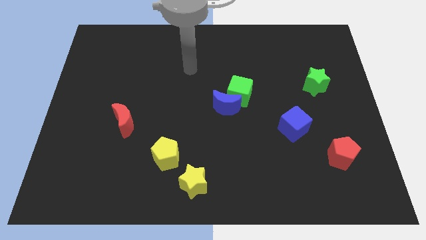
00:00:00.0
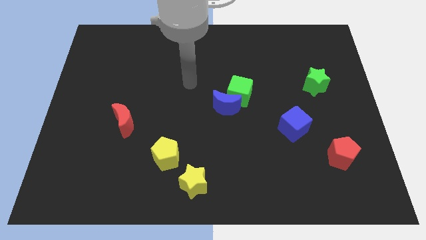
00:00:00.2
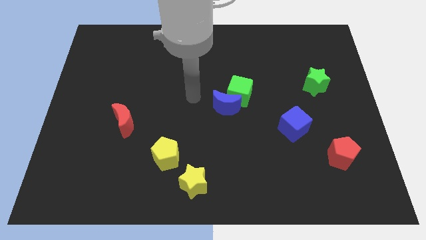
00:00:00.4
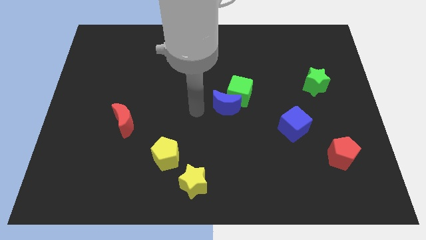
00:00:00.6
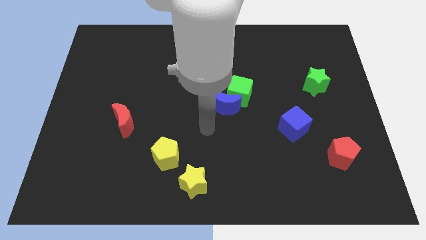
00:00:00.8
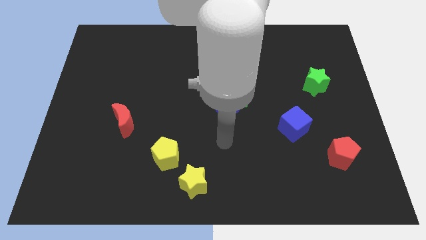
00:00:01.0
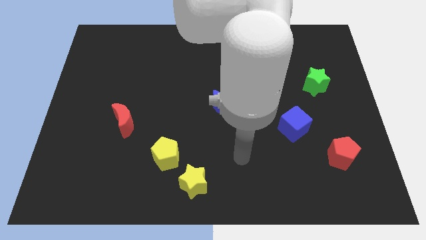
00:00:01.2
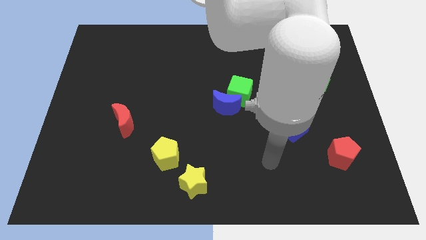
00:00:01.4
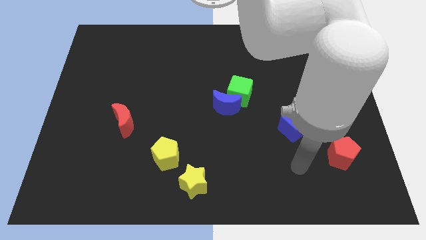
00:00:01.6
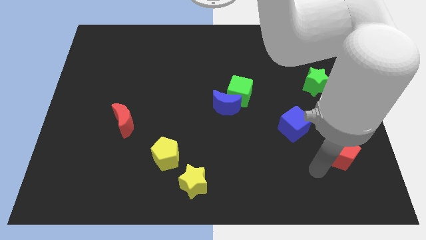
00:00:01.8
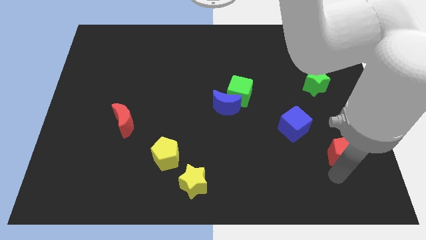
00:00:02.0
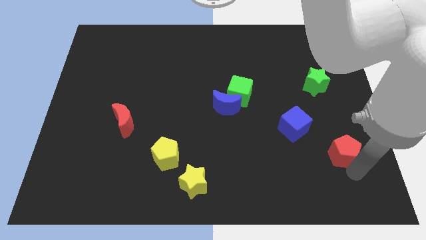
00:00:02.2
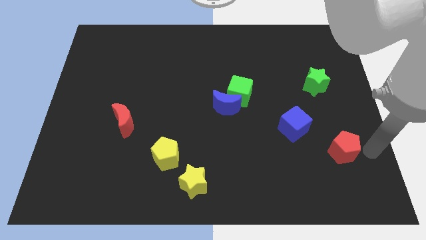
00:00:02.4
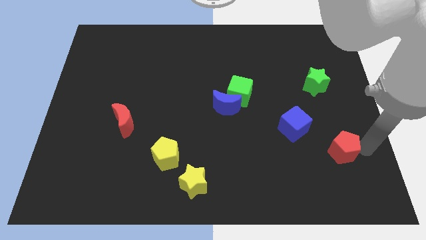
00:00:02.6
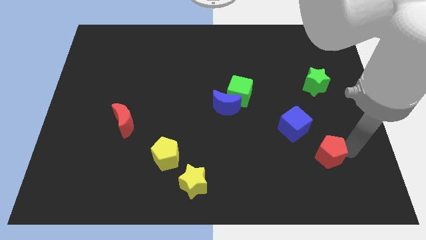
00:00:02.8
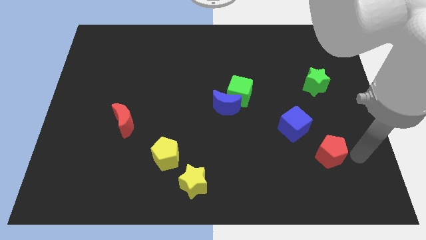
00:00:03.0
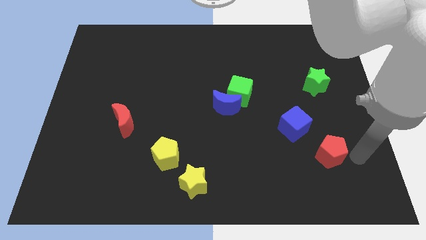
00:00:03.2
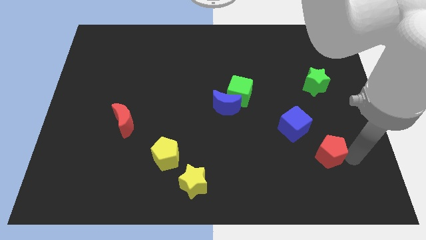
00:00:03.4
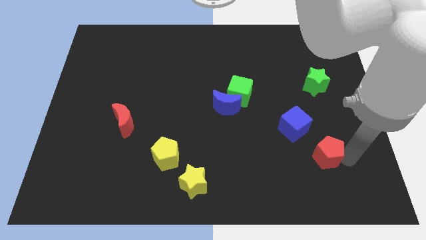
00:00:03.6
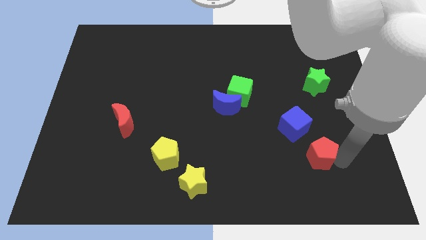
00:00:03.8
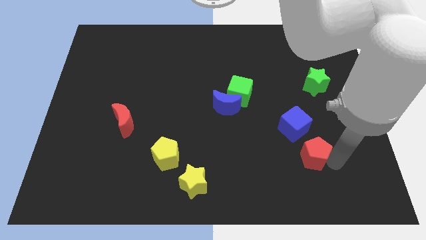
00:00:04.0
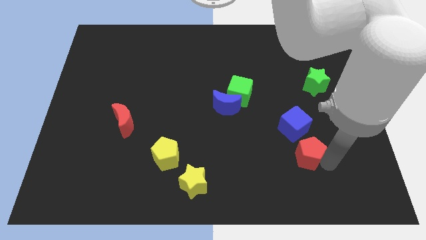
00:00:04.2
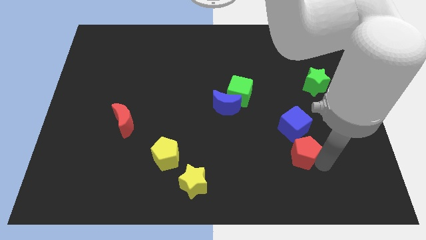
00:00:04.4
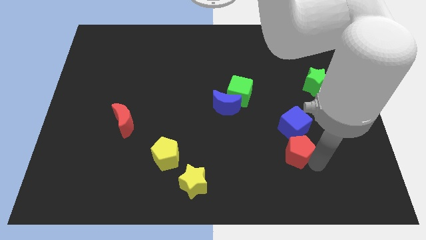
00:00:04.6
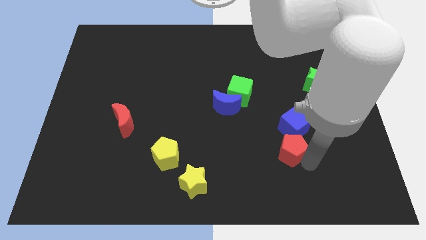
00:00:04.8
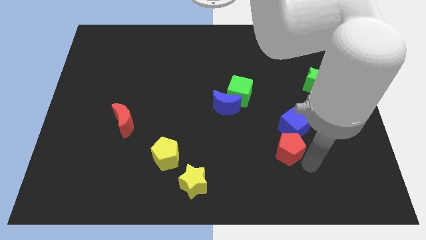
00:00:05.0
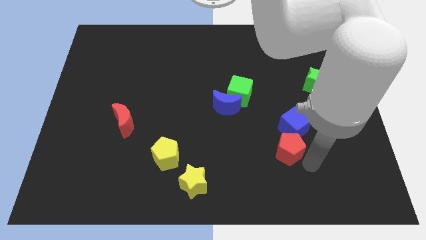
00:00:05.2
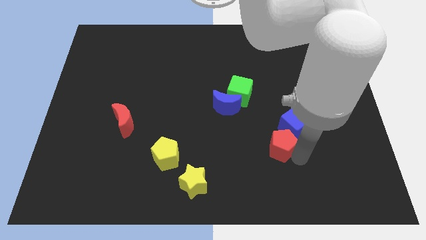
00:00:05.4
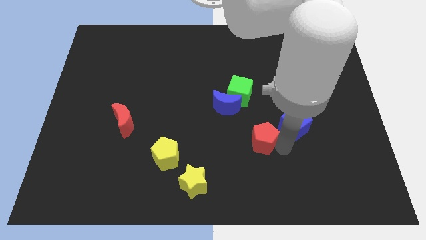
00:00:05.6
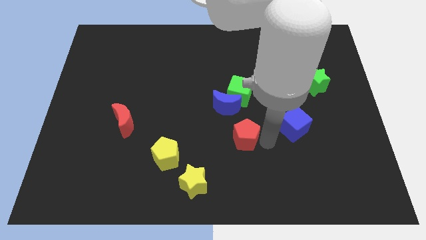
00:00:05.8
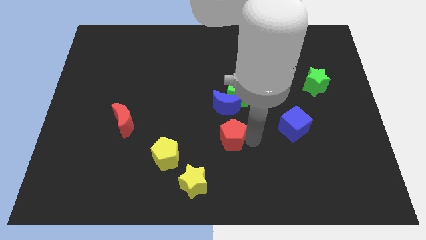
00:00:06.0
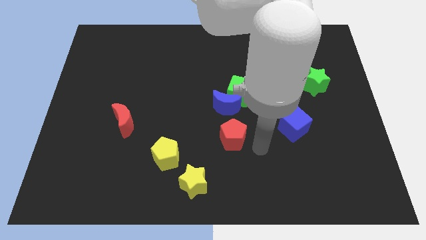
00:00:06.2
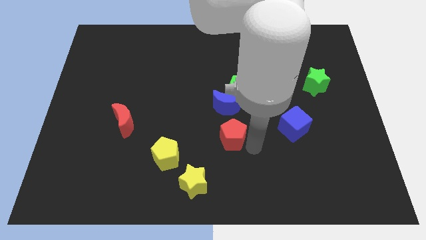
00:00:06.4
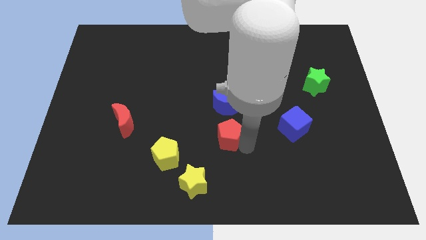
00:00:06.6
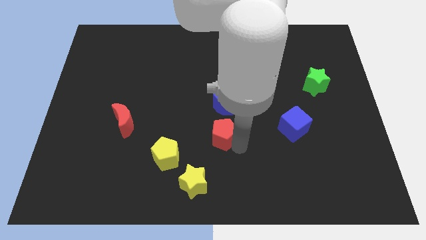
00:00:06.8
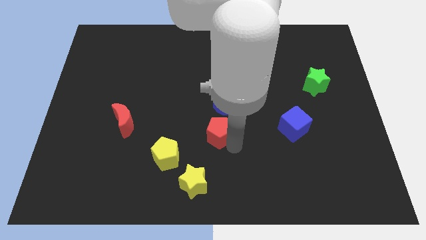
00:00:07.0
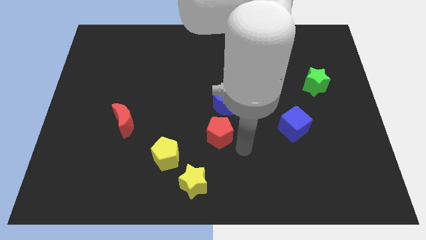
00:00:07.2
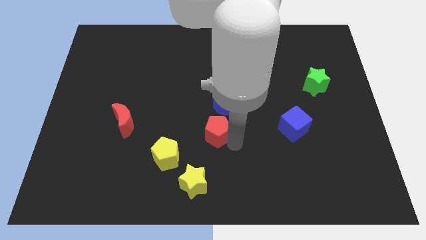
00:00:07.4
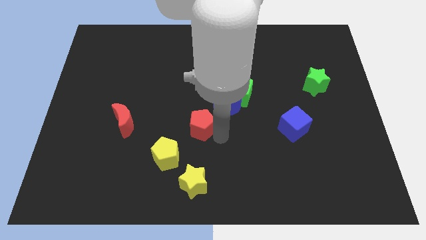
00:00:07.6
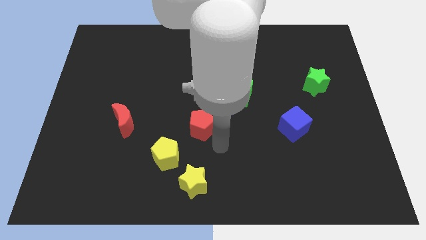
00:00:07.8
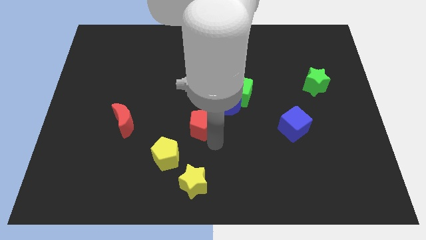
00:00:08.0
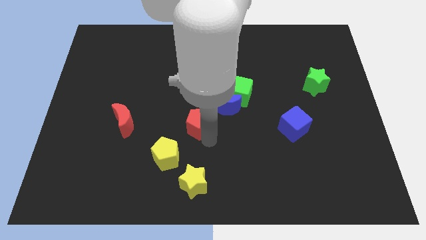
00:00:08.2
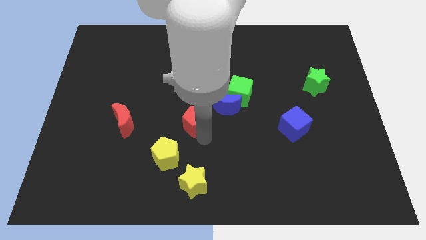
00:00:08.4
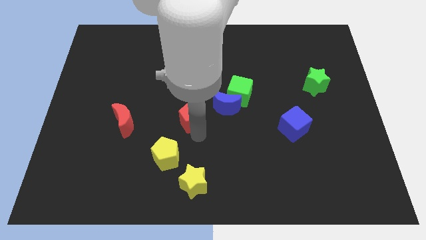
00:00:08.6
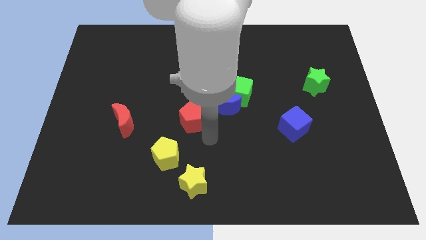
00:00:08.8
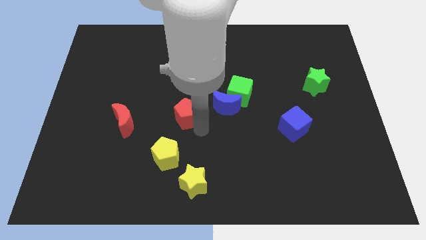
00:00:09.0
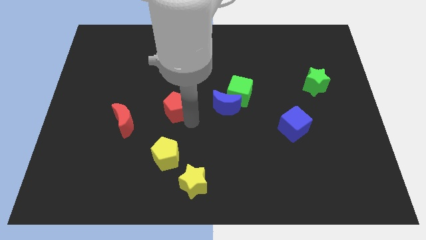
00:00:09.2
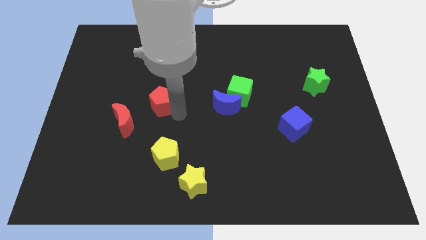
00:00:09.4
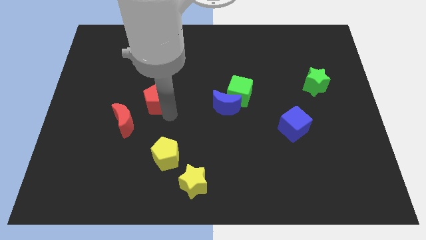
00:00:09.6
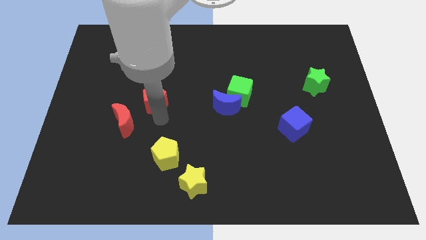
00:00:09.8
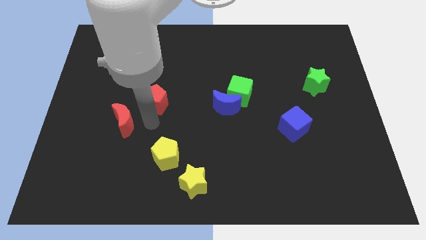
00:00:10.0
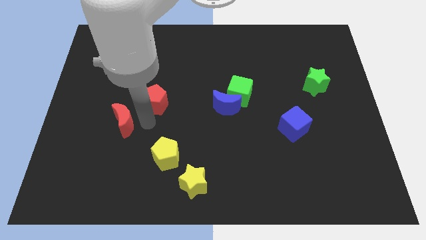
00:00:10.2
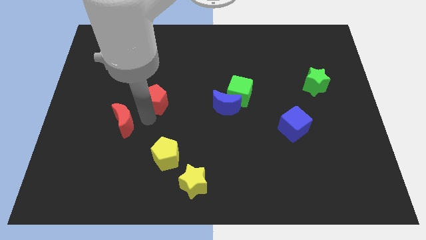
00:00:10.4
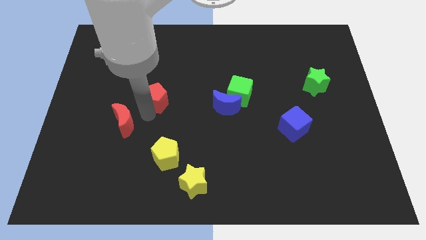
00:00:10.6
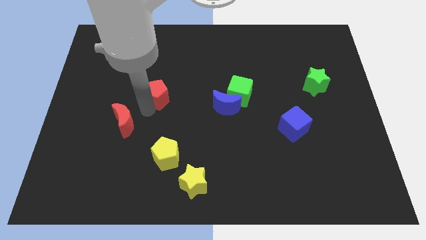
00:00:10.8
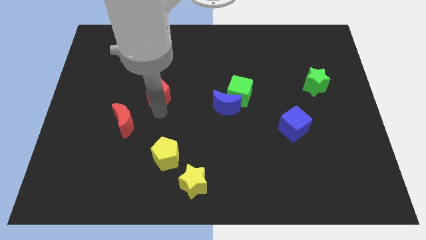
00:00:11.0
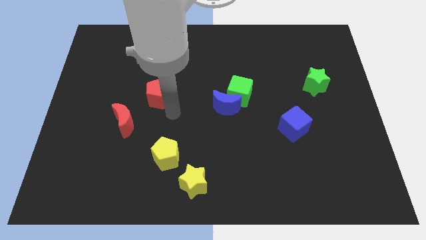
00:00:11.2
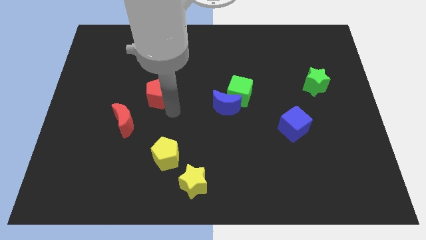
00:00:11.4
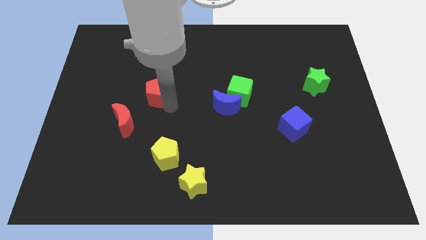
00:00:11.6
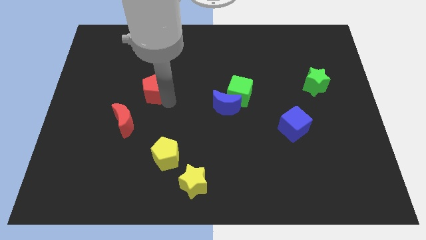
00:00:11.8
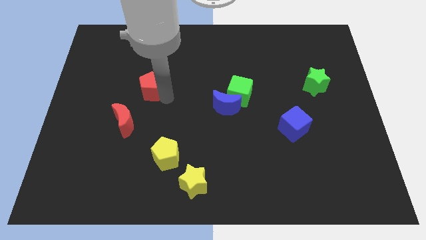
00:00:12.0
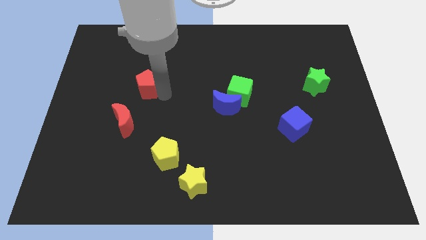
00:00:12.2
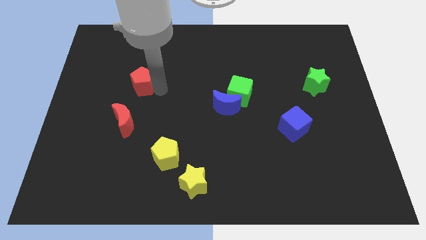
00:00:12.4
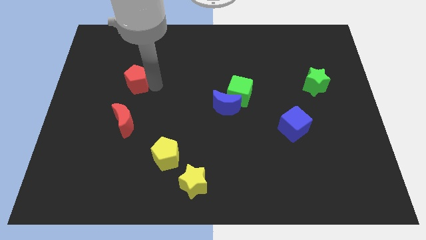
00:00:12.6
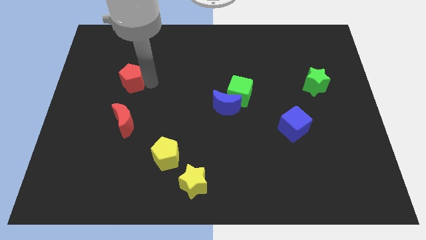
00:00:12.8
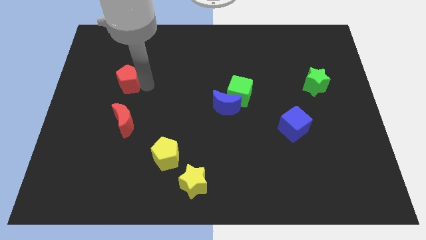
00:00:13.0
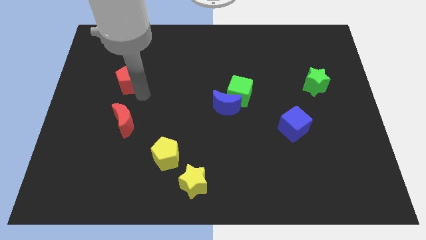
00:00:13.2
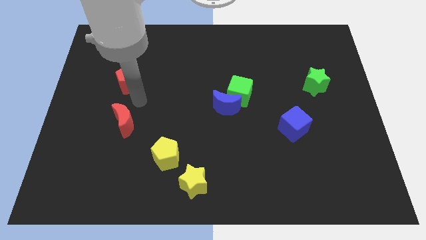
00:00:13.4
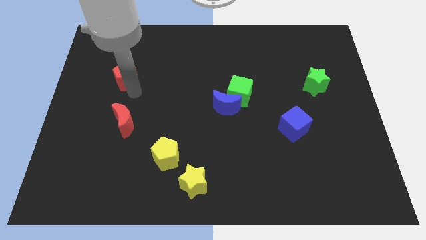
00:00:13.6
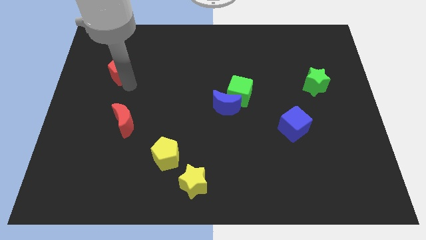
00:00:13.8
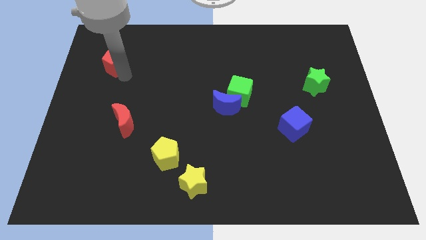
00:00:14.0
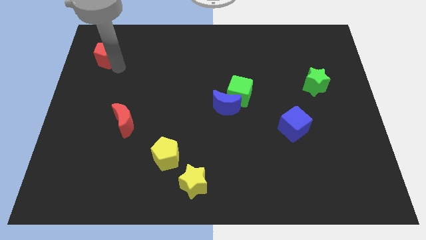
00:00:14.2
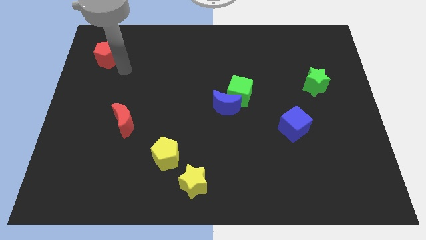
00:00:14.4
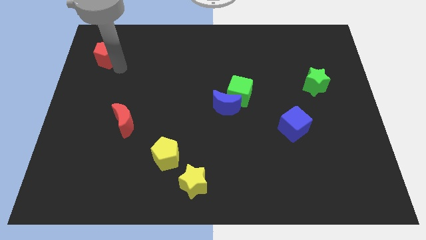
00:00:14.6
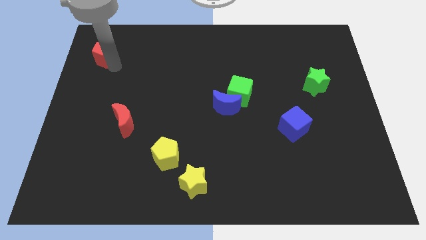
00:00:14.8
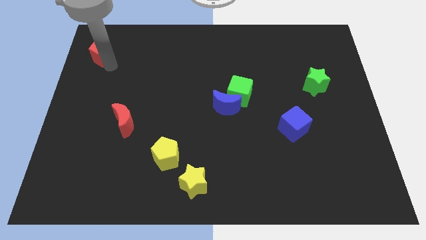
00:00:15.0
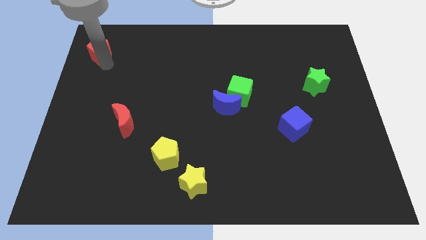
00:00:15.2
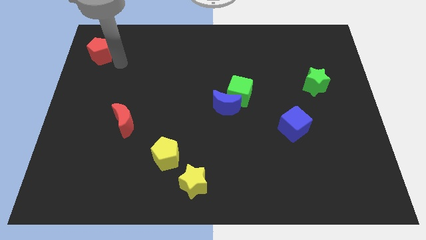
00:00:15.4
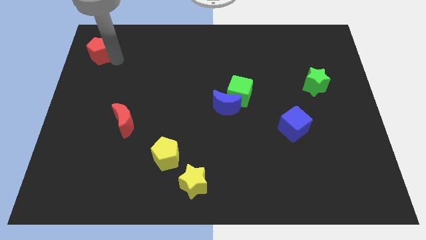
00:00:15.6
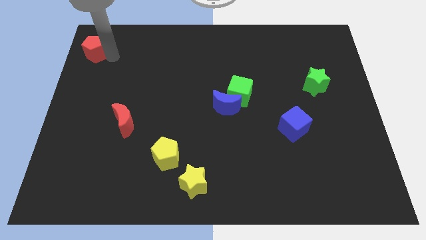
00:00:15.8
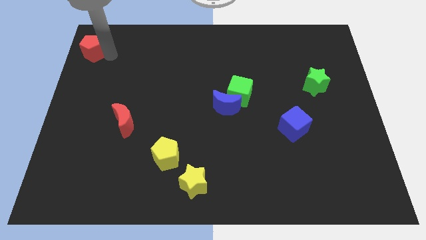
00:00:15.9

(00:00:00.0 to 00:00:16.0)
put the red pentagon to the upper left corner
